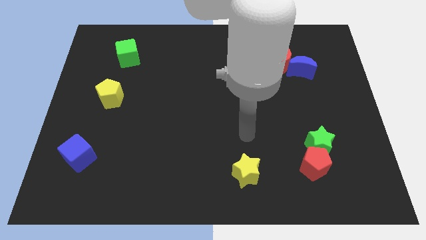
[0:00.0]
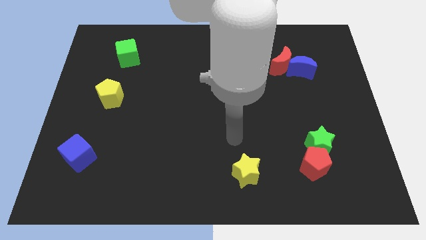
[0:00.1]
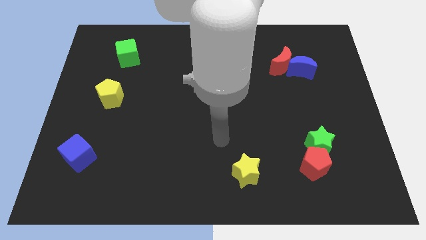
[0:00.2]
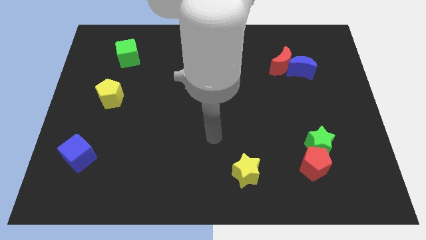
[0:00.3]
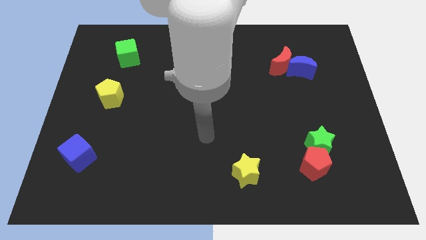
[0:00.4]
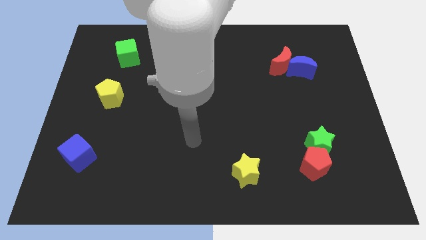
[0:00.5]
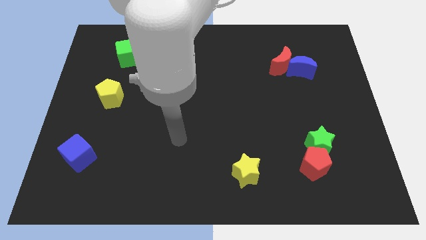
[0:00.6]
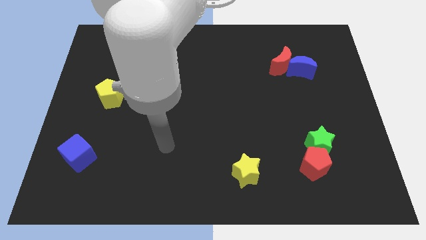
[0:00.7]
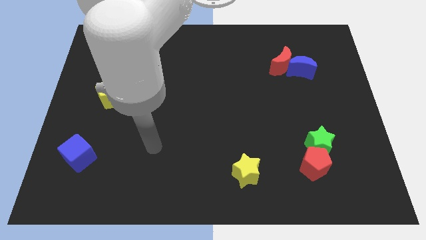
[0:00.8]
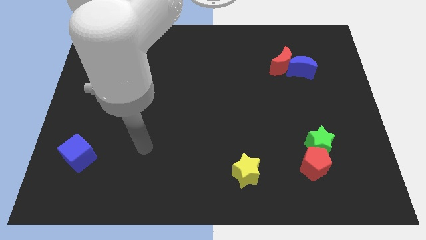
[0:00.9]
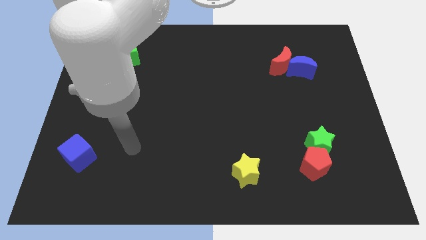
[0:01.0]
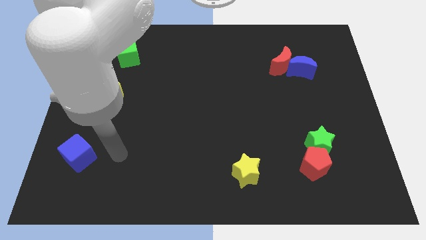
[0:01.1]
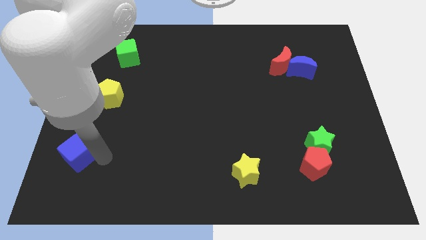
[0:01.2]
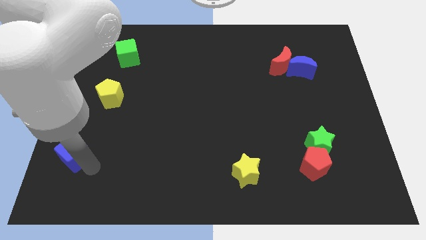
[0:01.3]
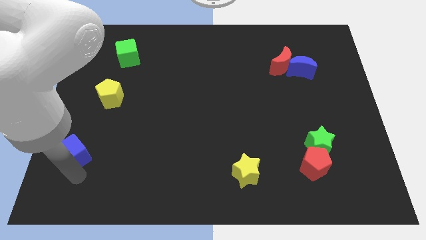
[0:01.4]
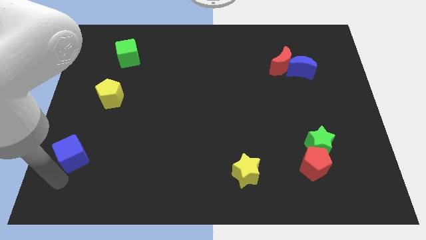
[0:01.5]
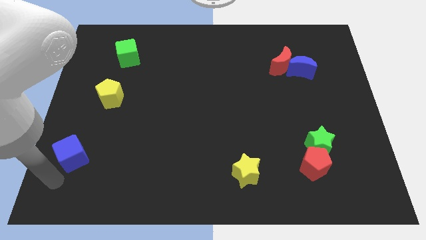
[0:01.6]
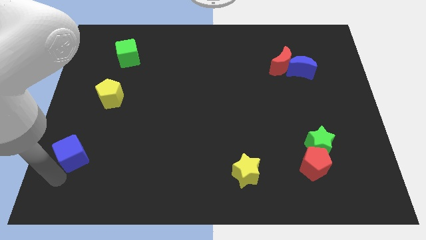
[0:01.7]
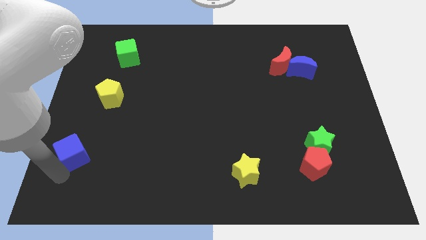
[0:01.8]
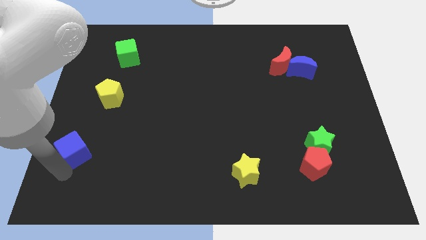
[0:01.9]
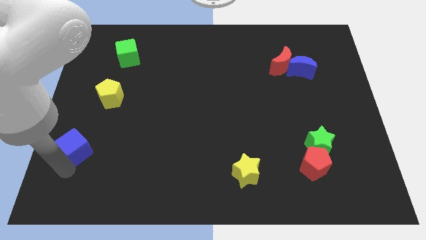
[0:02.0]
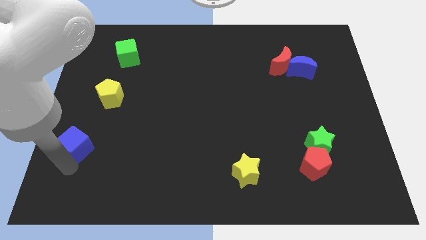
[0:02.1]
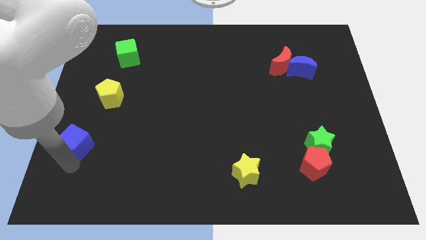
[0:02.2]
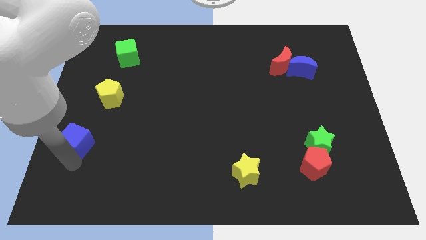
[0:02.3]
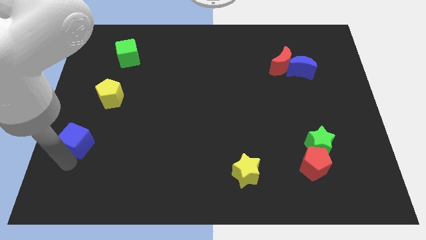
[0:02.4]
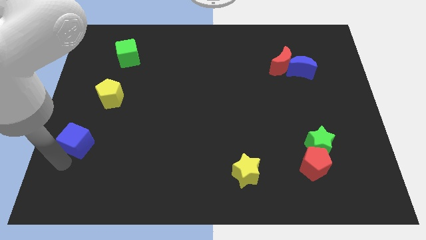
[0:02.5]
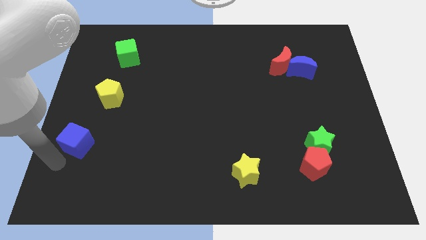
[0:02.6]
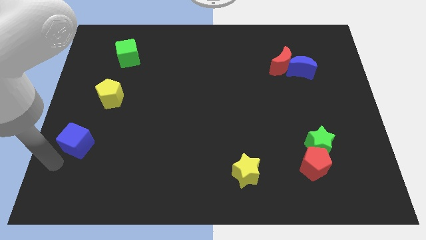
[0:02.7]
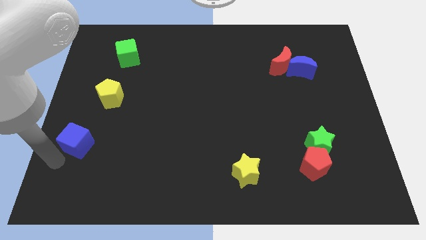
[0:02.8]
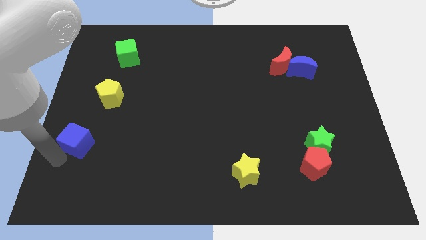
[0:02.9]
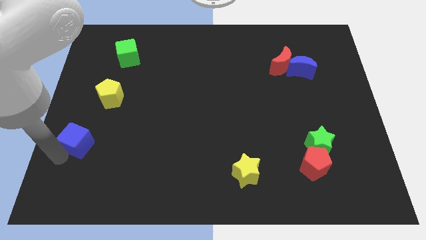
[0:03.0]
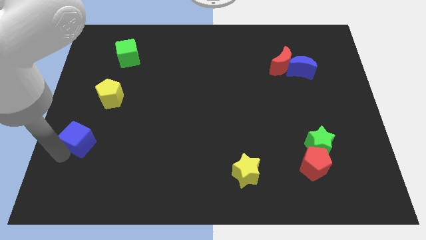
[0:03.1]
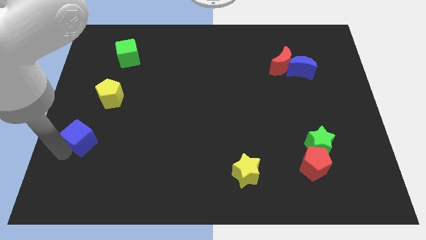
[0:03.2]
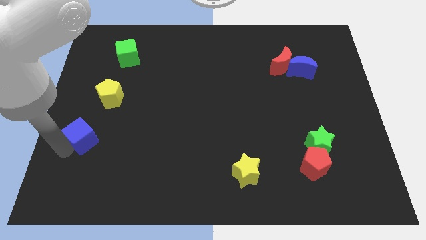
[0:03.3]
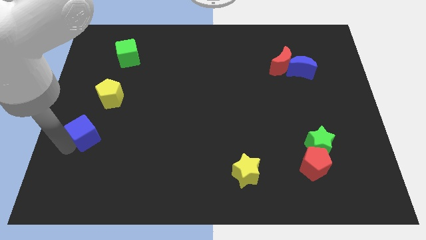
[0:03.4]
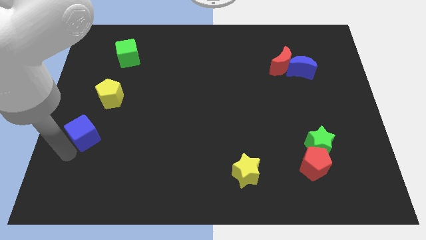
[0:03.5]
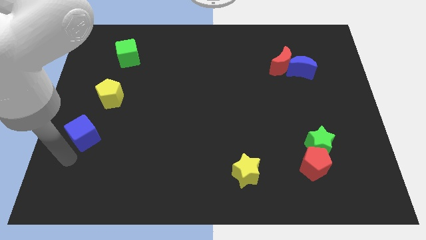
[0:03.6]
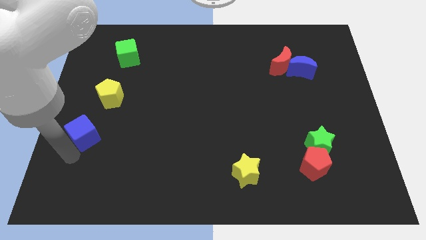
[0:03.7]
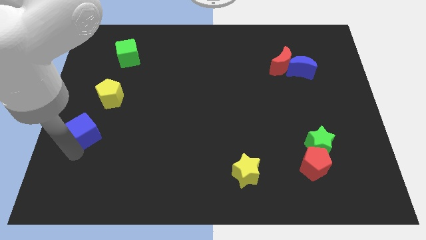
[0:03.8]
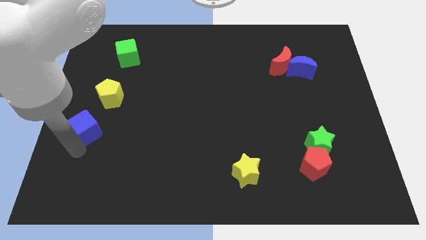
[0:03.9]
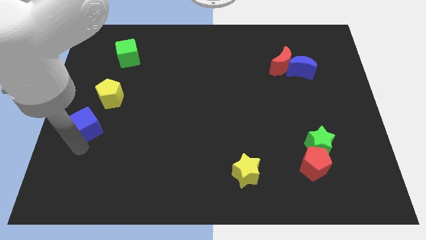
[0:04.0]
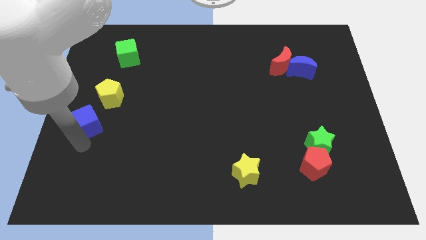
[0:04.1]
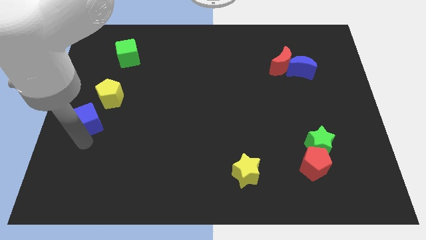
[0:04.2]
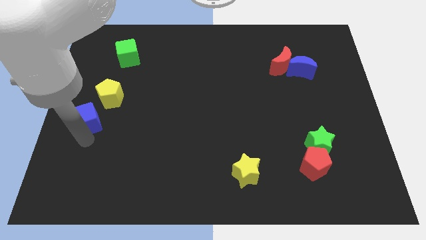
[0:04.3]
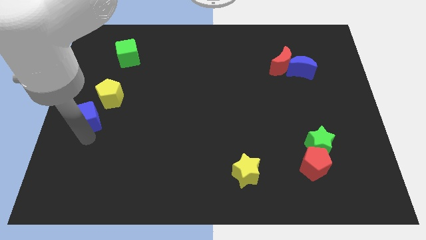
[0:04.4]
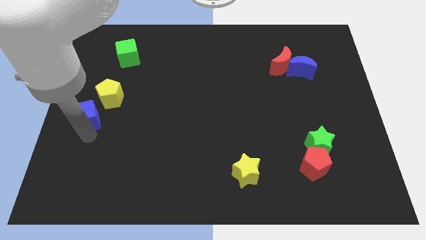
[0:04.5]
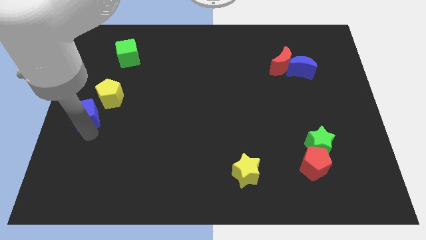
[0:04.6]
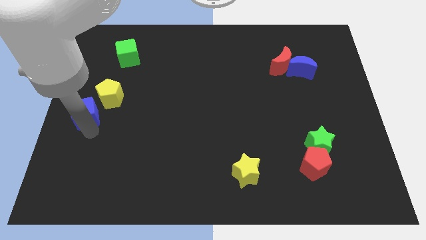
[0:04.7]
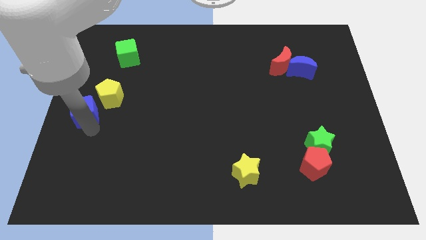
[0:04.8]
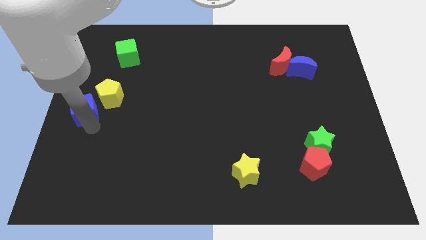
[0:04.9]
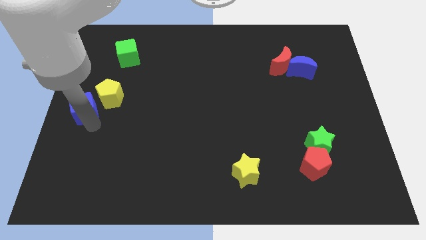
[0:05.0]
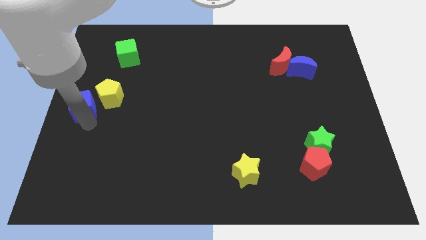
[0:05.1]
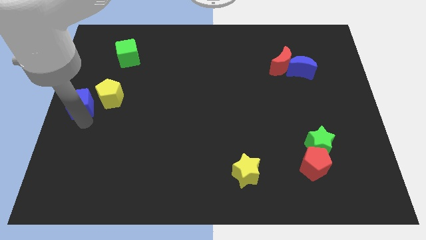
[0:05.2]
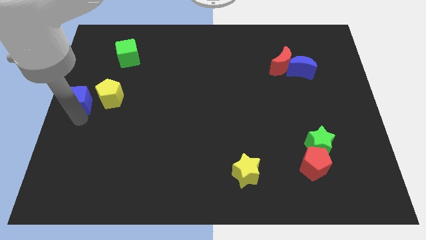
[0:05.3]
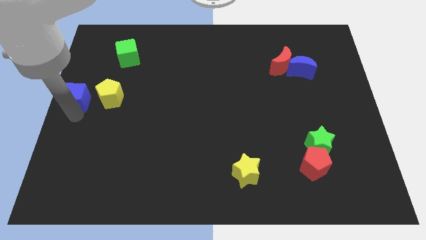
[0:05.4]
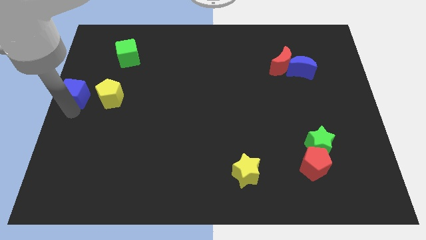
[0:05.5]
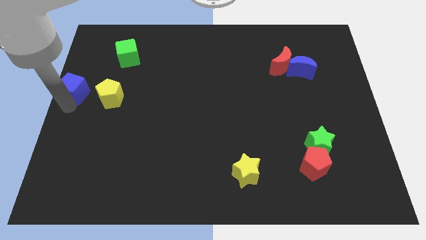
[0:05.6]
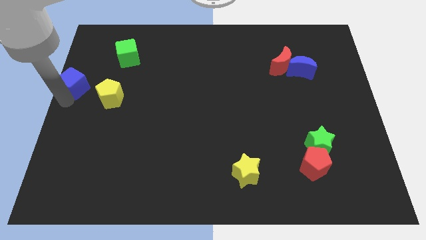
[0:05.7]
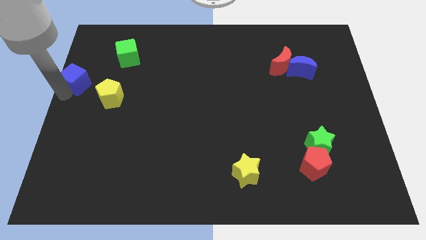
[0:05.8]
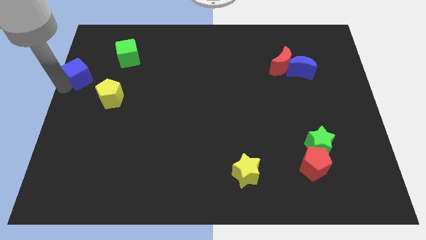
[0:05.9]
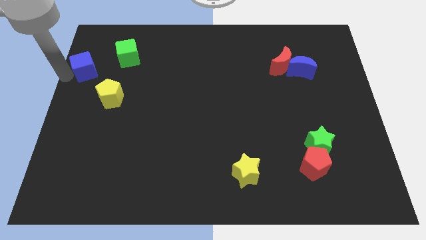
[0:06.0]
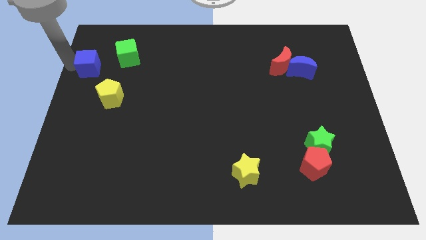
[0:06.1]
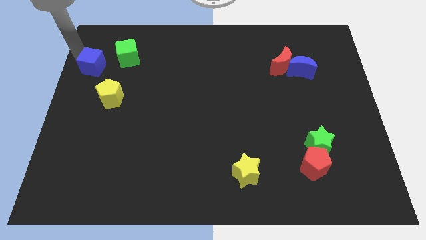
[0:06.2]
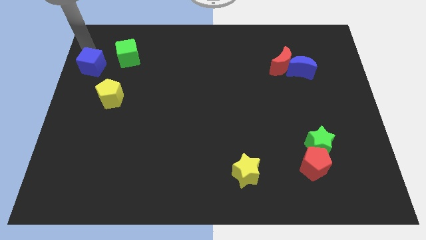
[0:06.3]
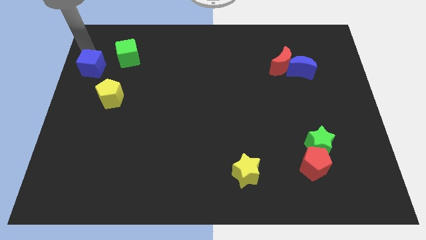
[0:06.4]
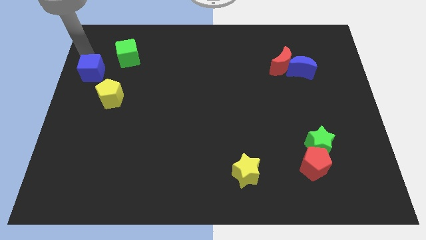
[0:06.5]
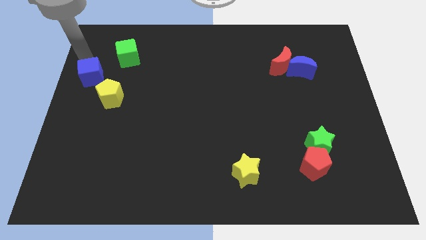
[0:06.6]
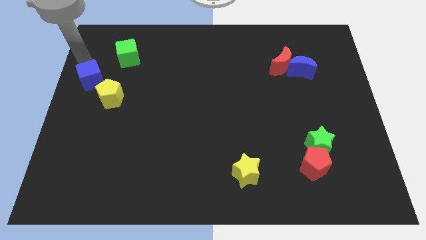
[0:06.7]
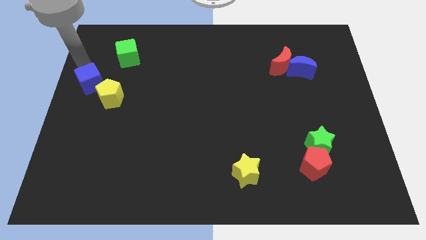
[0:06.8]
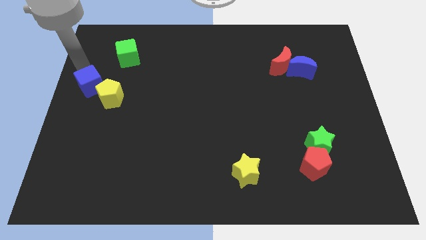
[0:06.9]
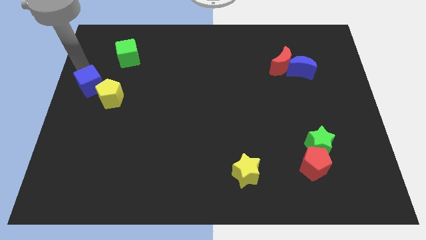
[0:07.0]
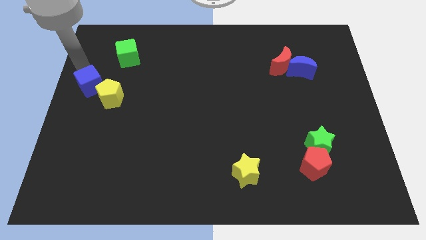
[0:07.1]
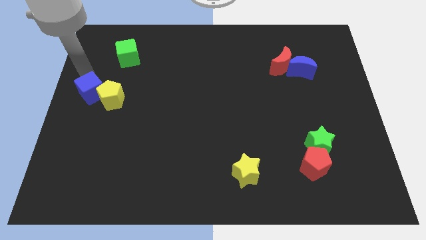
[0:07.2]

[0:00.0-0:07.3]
push the blue cube next to the yellow pentagon
